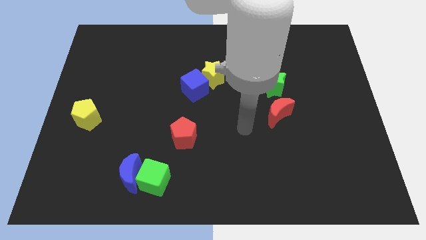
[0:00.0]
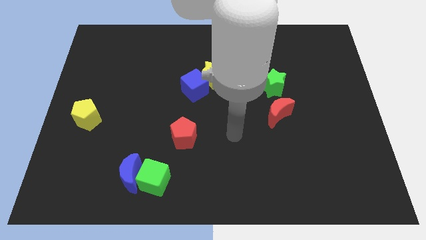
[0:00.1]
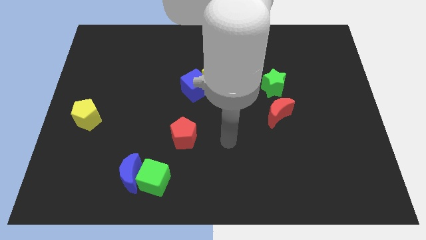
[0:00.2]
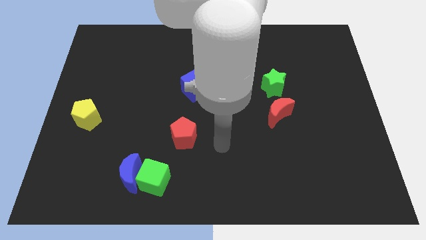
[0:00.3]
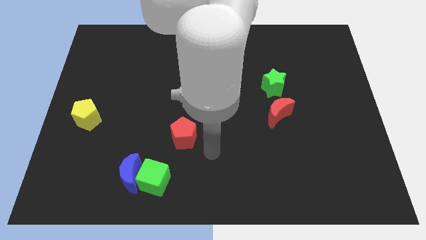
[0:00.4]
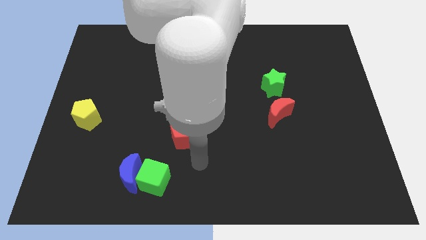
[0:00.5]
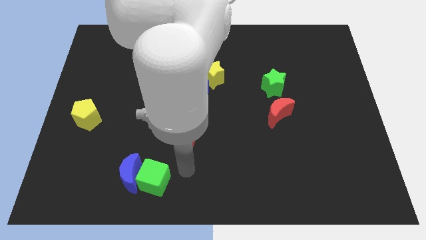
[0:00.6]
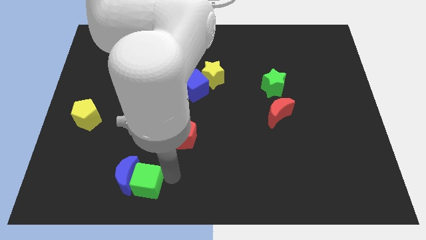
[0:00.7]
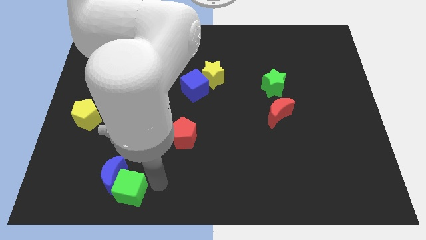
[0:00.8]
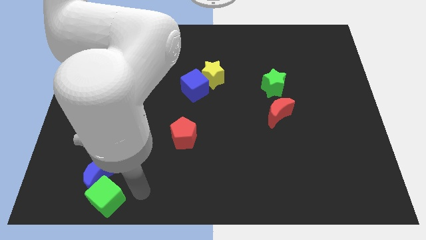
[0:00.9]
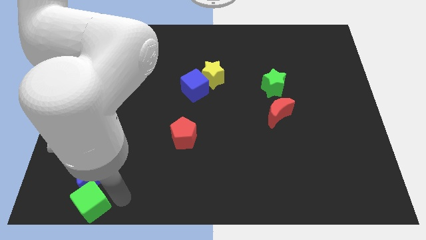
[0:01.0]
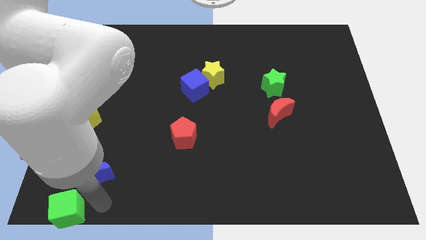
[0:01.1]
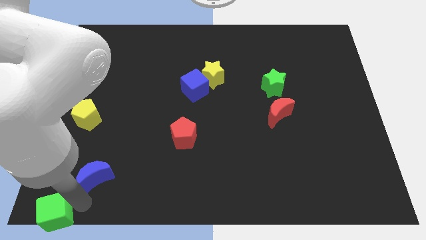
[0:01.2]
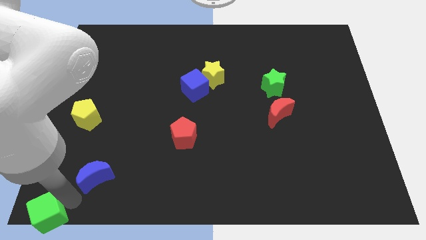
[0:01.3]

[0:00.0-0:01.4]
move the blue moon away from the green cube

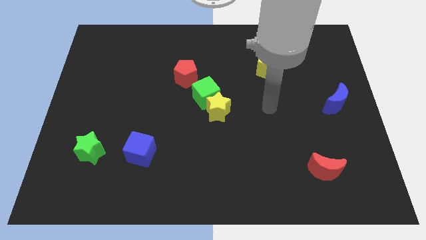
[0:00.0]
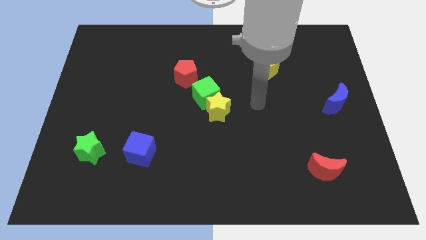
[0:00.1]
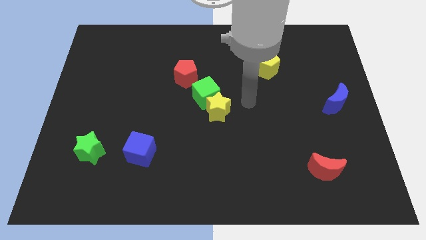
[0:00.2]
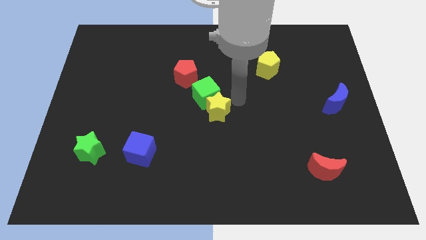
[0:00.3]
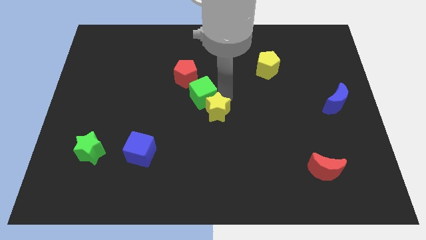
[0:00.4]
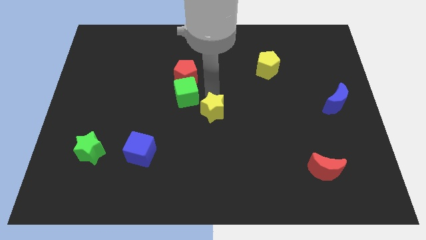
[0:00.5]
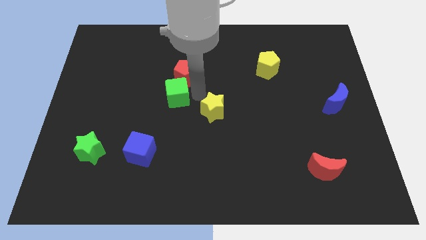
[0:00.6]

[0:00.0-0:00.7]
move the yellow star away from the green cube

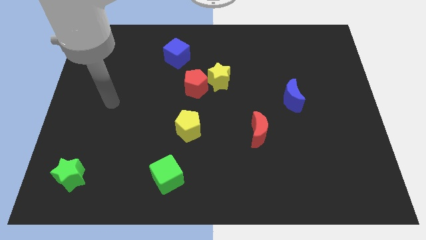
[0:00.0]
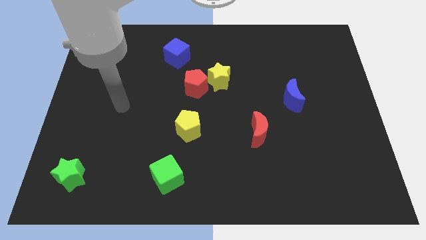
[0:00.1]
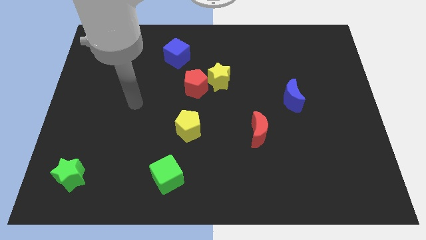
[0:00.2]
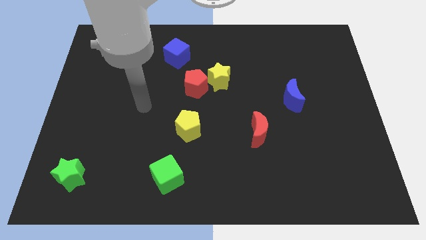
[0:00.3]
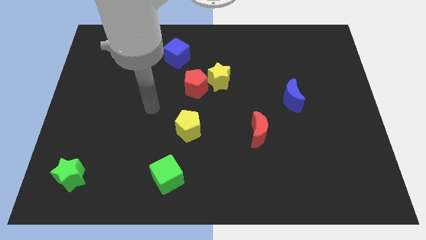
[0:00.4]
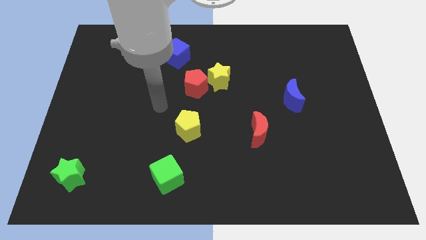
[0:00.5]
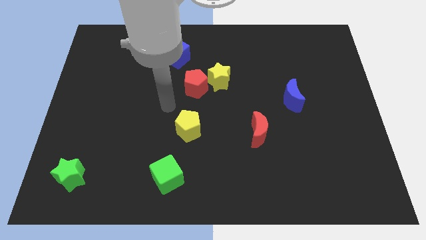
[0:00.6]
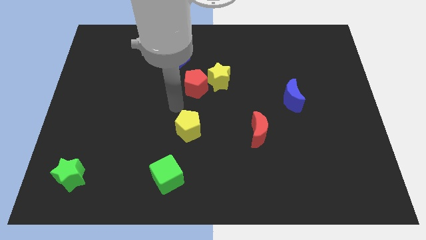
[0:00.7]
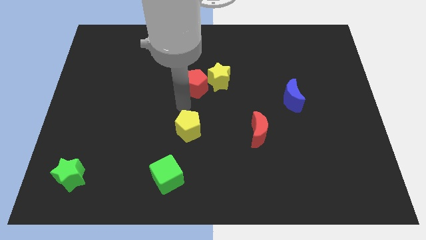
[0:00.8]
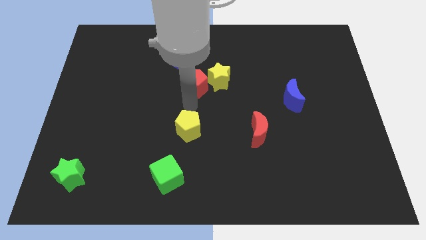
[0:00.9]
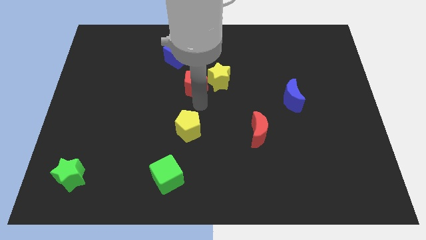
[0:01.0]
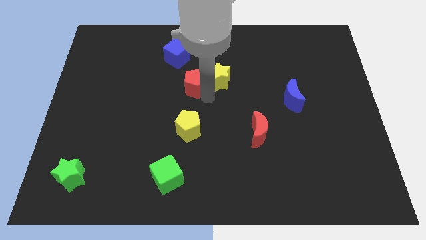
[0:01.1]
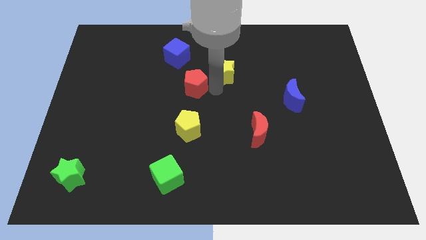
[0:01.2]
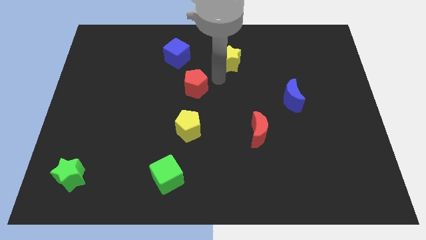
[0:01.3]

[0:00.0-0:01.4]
separate the red pentagon from the yellow star

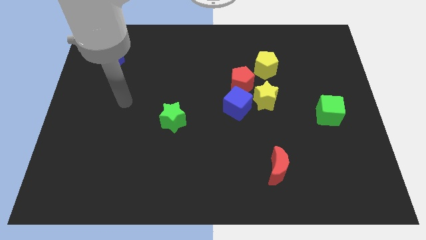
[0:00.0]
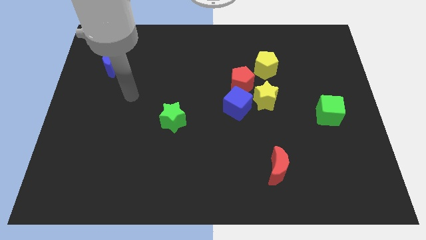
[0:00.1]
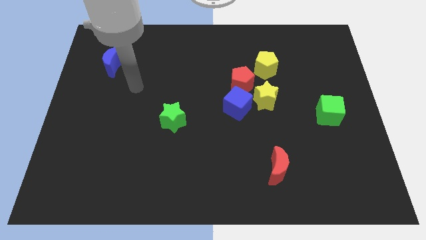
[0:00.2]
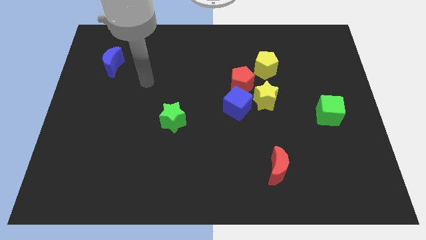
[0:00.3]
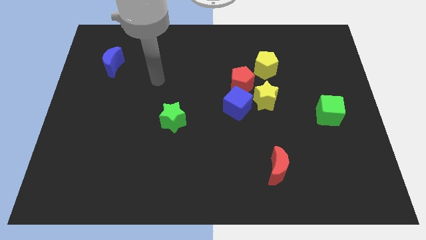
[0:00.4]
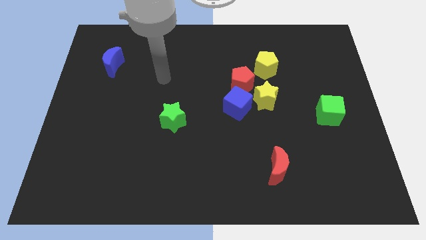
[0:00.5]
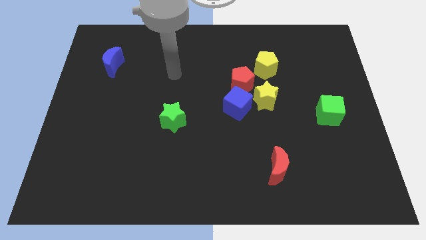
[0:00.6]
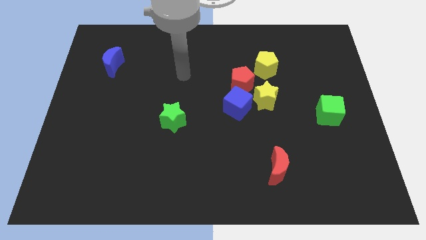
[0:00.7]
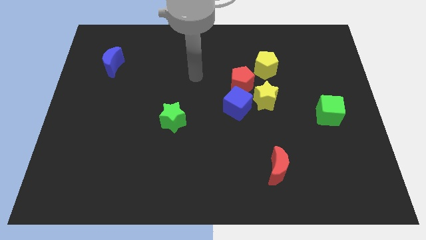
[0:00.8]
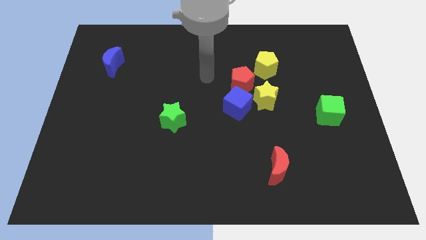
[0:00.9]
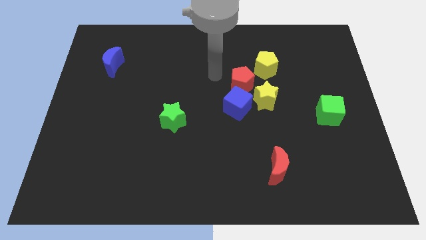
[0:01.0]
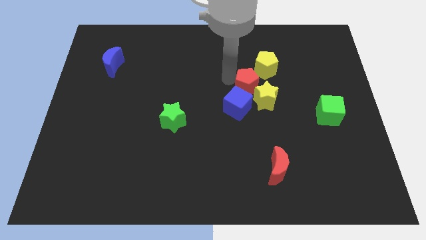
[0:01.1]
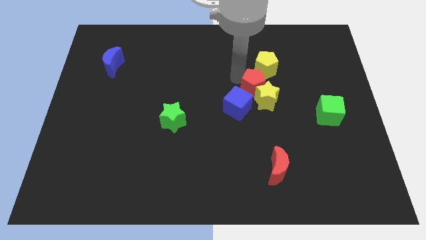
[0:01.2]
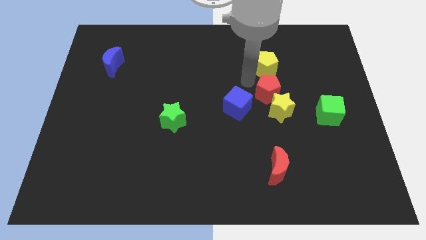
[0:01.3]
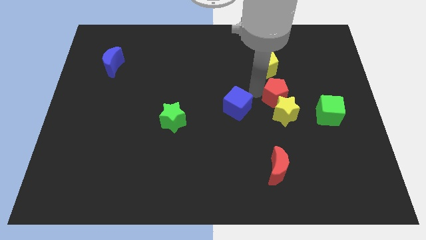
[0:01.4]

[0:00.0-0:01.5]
separate the blue cube from the red pentagon and yellow star

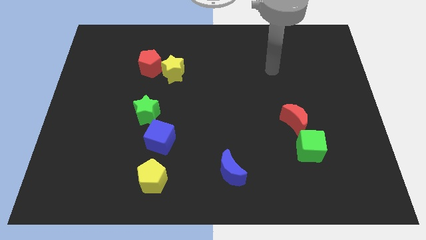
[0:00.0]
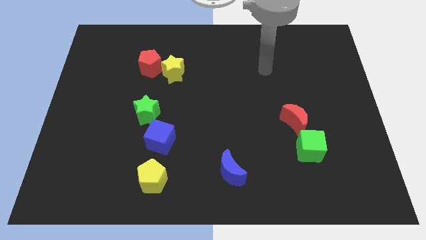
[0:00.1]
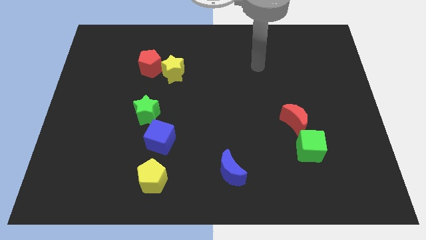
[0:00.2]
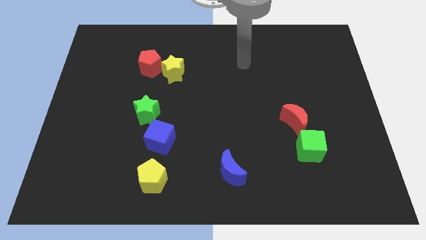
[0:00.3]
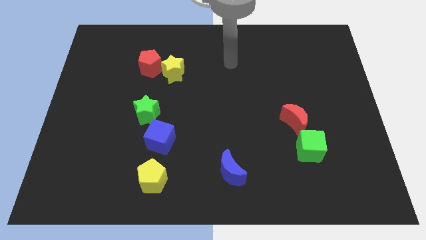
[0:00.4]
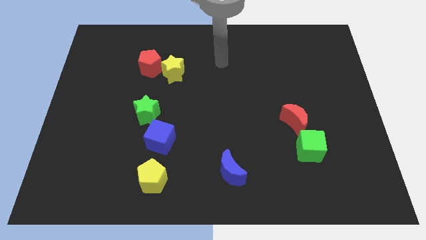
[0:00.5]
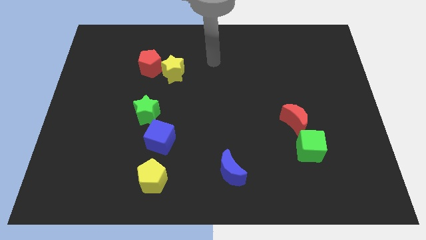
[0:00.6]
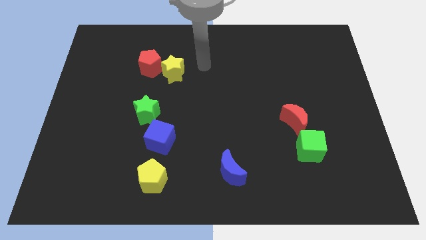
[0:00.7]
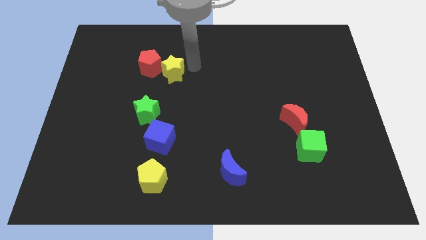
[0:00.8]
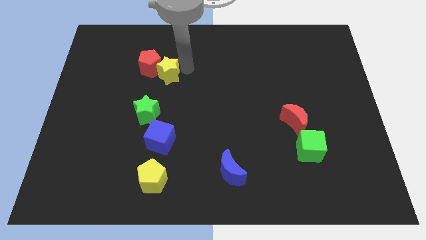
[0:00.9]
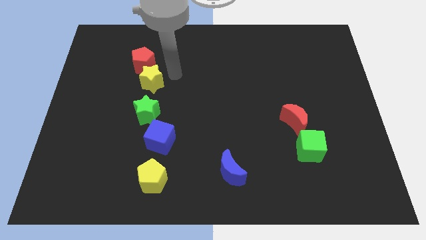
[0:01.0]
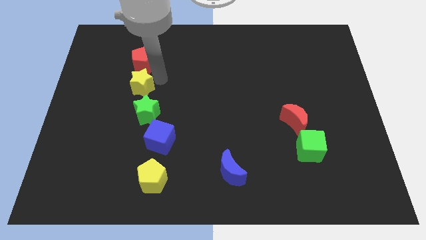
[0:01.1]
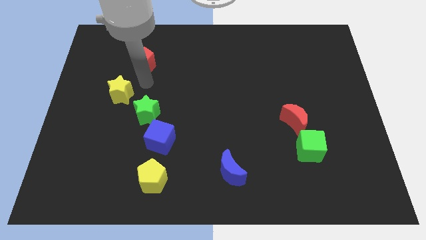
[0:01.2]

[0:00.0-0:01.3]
move the red pentagon away from the yellow star

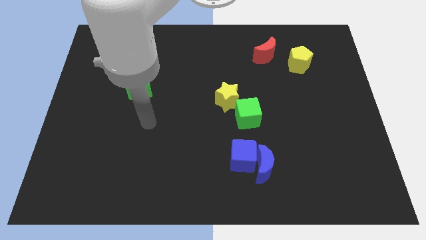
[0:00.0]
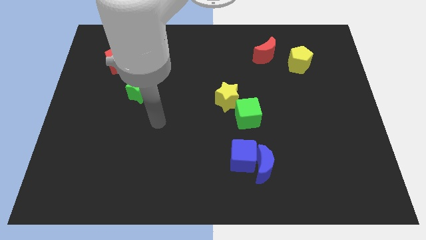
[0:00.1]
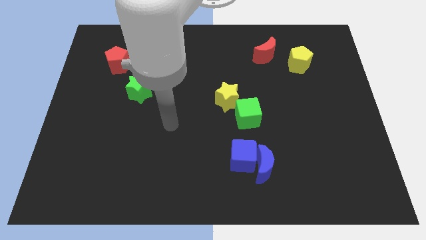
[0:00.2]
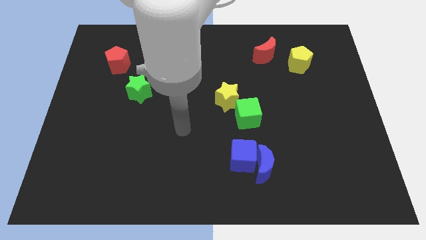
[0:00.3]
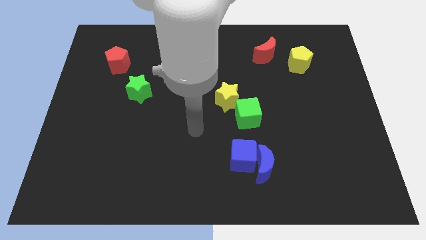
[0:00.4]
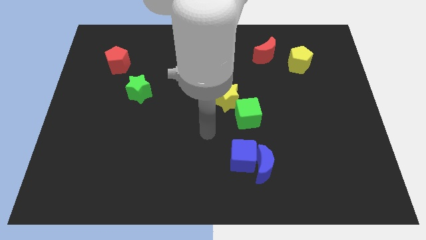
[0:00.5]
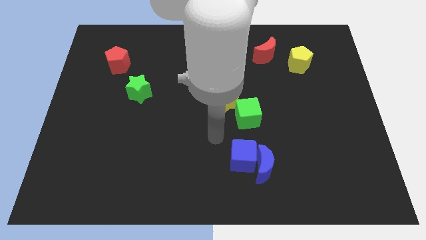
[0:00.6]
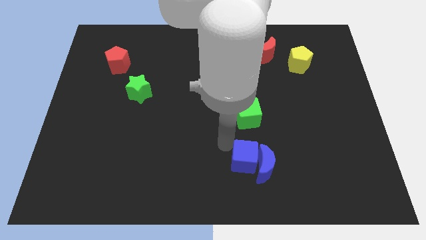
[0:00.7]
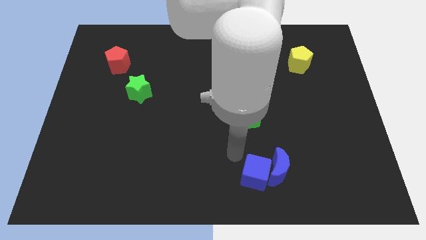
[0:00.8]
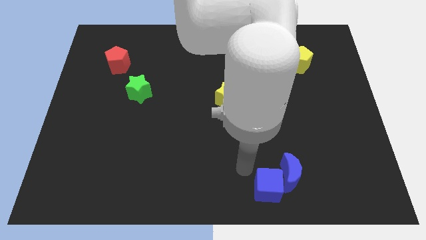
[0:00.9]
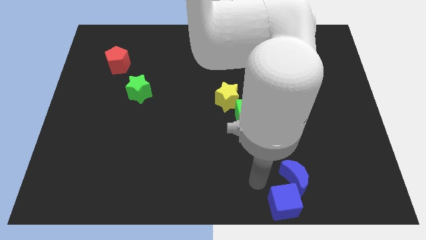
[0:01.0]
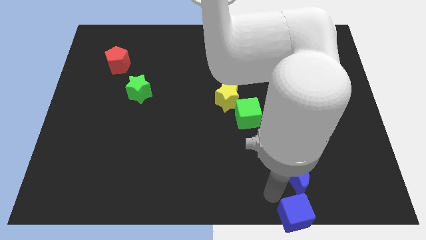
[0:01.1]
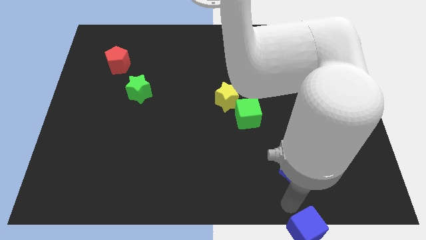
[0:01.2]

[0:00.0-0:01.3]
separate the blue moon from the blue cube

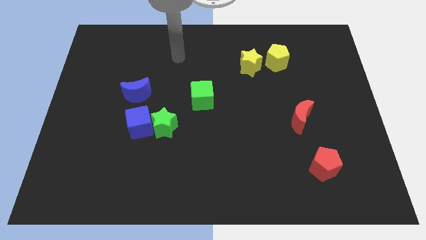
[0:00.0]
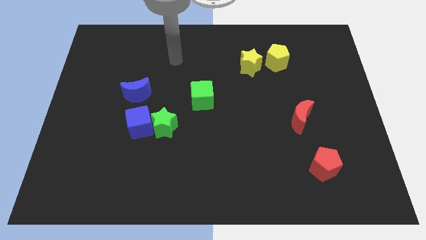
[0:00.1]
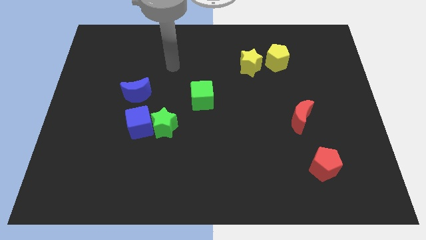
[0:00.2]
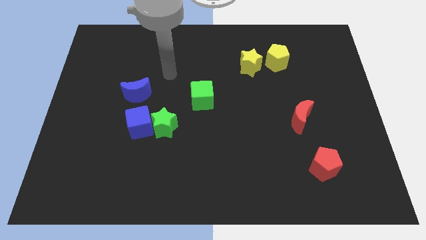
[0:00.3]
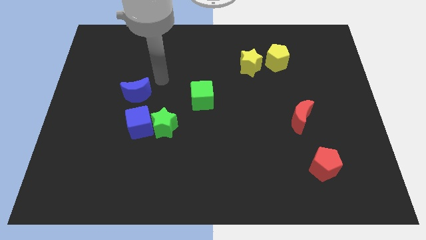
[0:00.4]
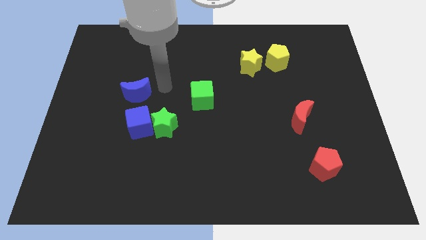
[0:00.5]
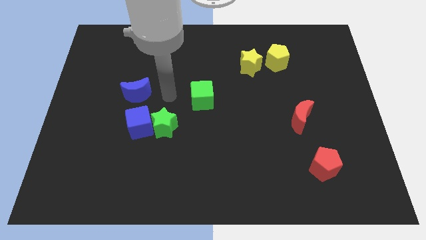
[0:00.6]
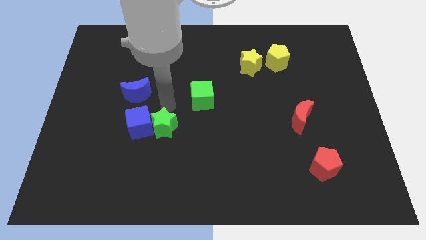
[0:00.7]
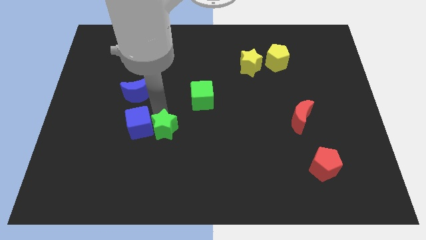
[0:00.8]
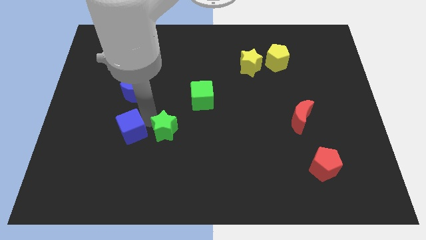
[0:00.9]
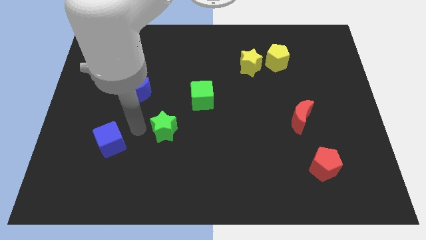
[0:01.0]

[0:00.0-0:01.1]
pull the green star apart from the blue cube

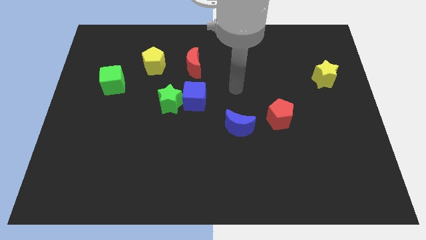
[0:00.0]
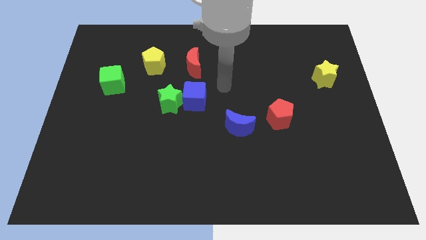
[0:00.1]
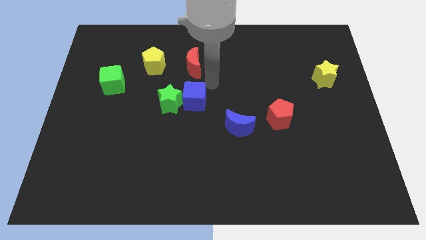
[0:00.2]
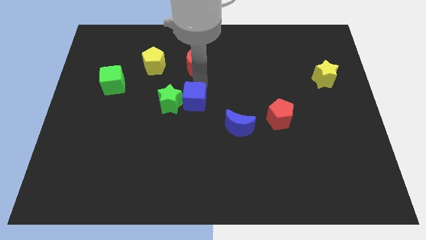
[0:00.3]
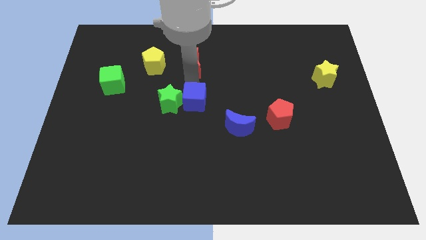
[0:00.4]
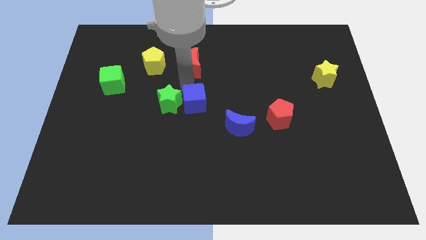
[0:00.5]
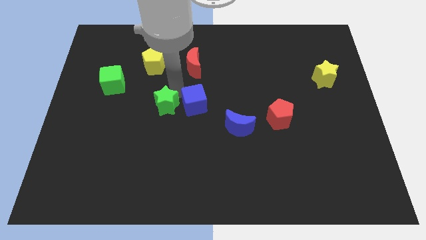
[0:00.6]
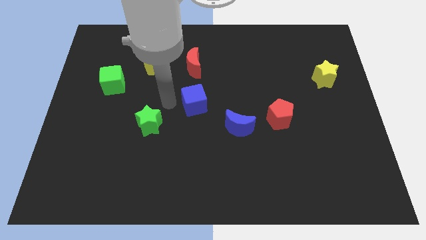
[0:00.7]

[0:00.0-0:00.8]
separate the blue cube from the green star
